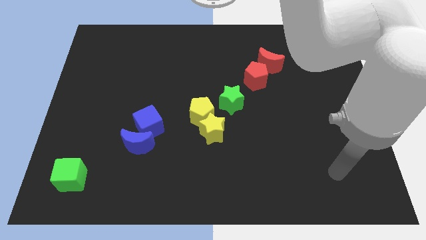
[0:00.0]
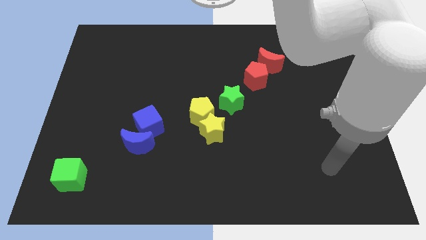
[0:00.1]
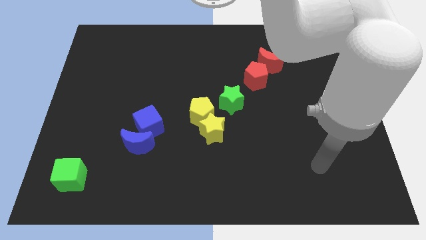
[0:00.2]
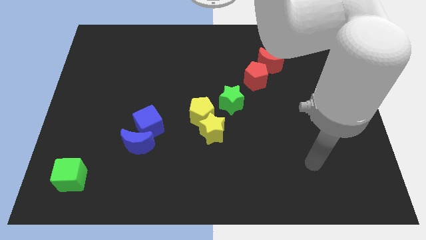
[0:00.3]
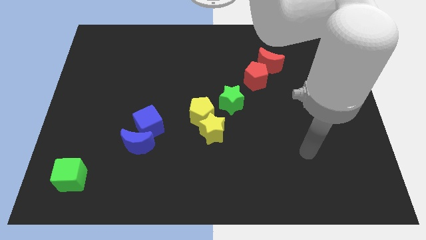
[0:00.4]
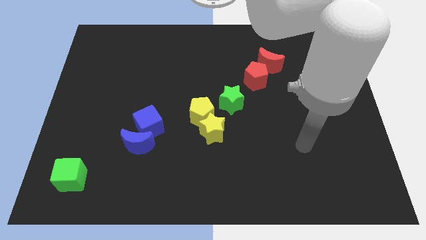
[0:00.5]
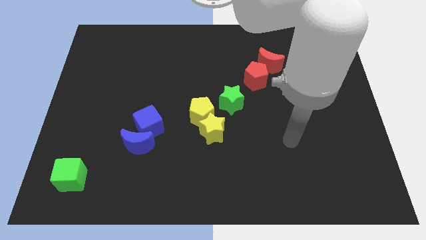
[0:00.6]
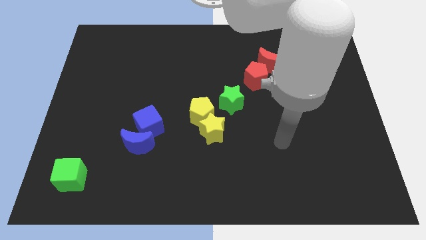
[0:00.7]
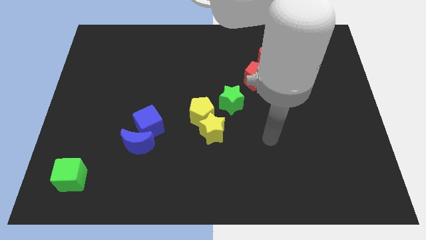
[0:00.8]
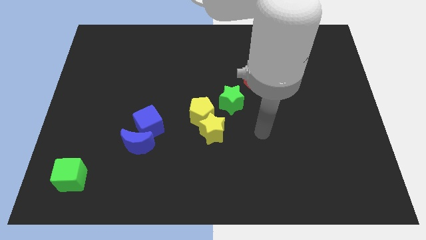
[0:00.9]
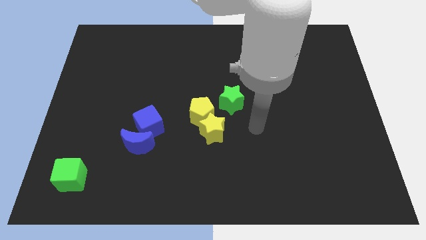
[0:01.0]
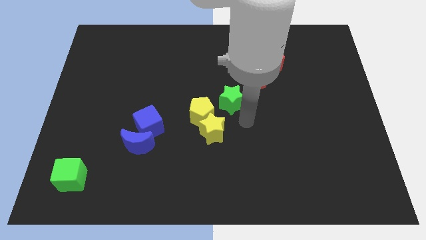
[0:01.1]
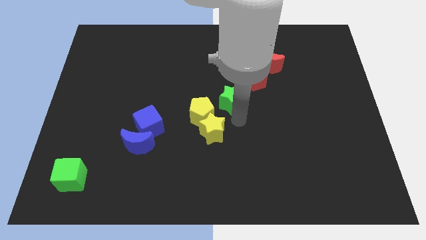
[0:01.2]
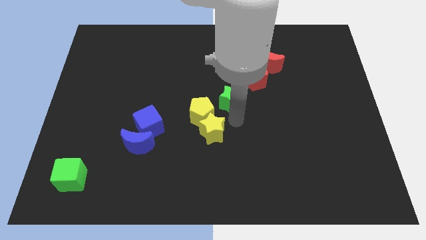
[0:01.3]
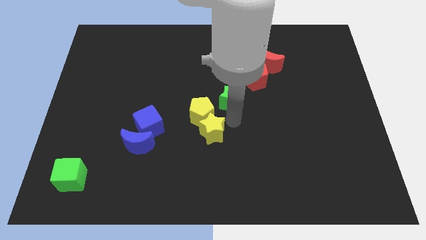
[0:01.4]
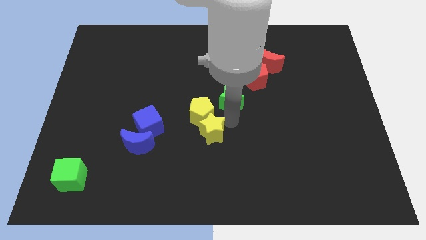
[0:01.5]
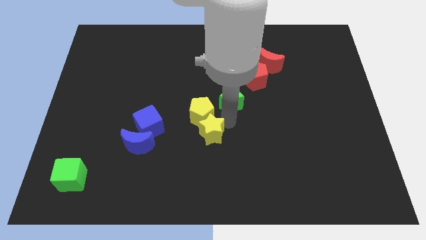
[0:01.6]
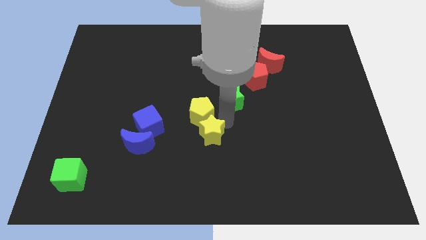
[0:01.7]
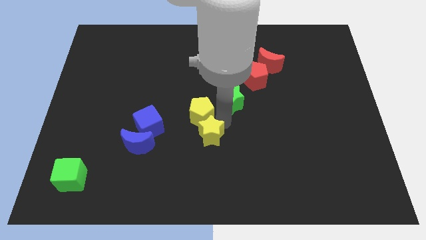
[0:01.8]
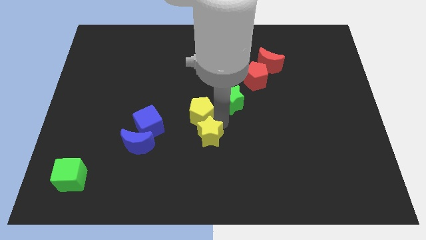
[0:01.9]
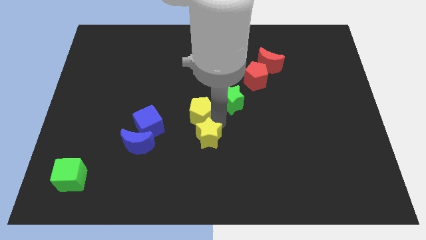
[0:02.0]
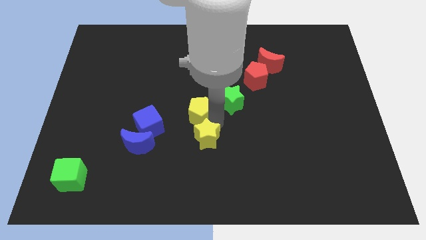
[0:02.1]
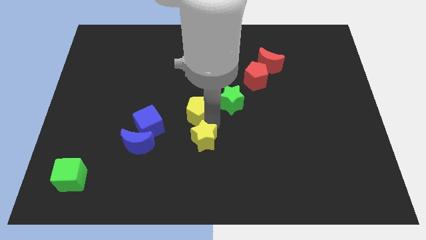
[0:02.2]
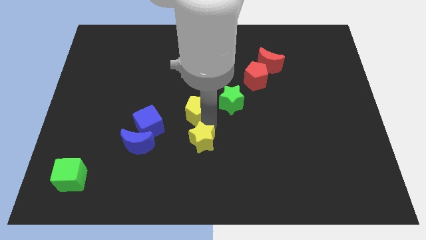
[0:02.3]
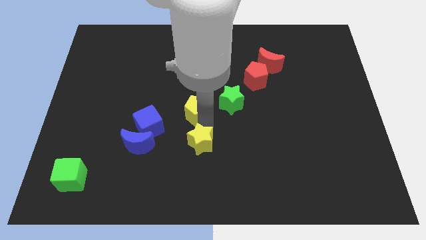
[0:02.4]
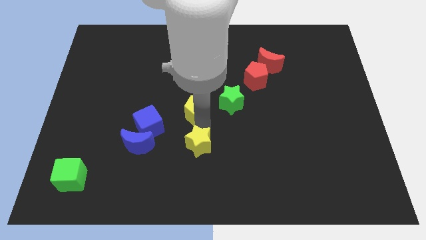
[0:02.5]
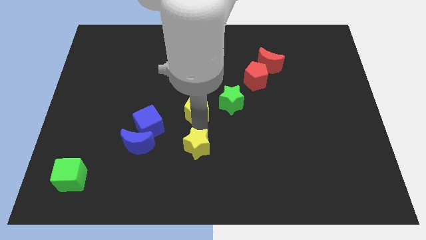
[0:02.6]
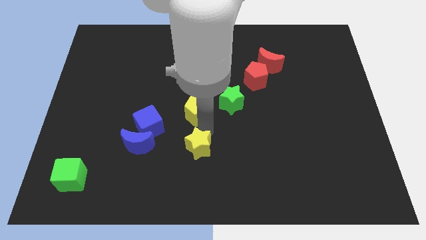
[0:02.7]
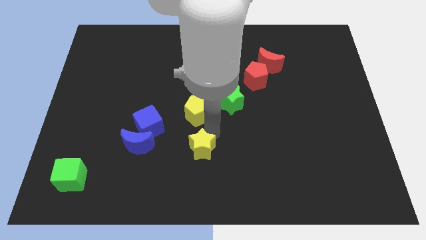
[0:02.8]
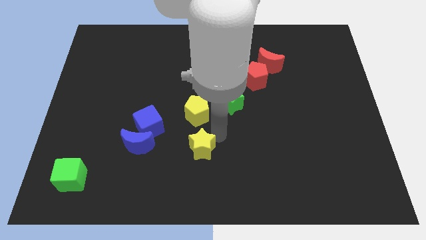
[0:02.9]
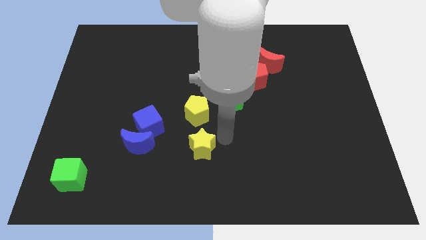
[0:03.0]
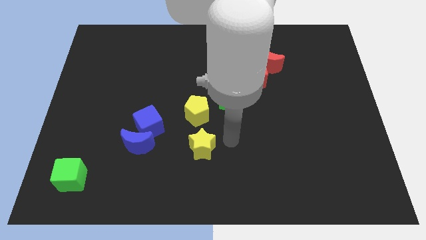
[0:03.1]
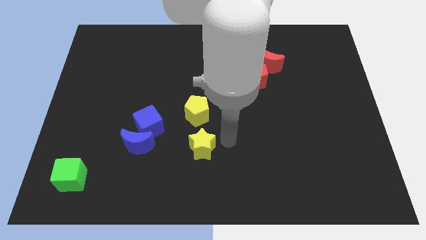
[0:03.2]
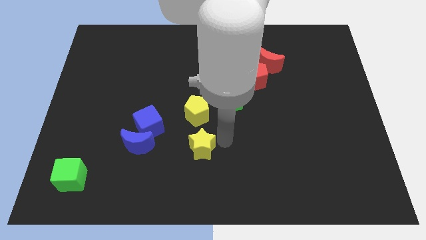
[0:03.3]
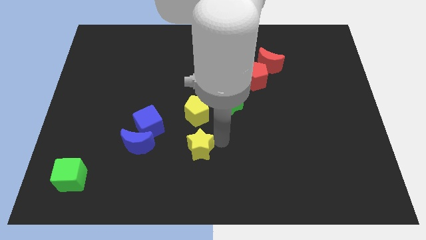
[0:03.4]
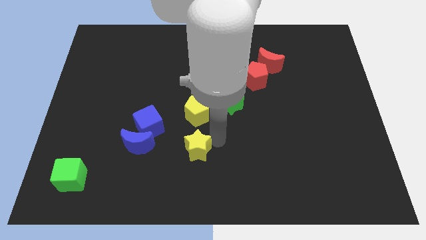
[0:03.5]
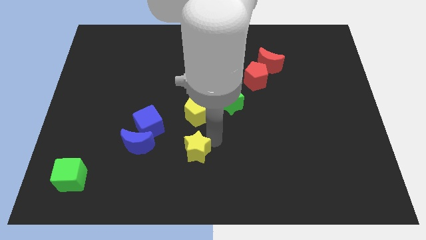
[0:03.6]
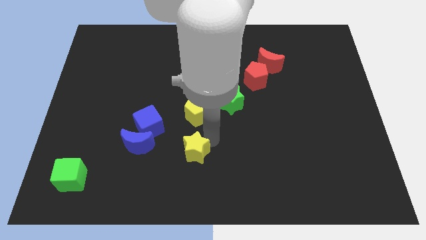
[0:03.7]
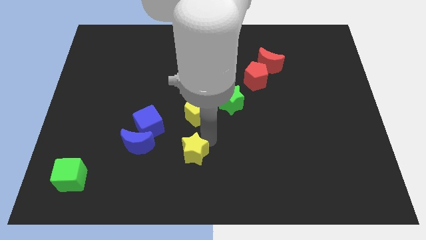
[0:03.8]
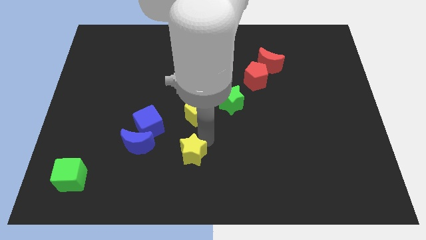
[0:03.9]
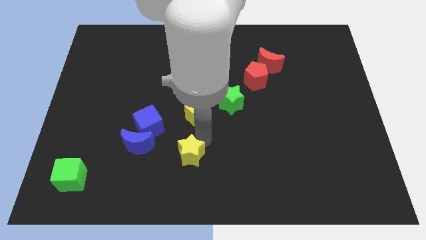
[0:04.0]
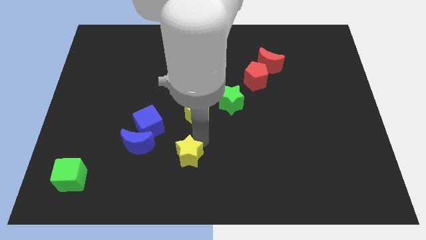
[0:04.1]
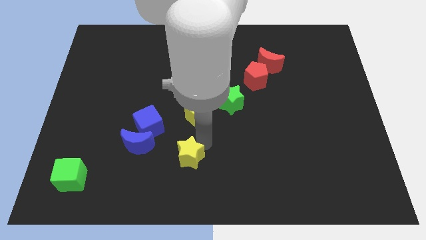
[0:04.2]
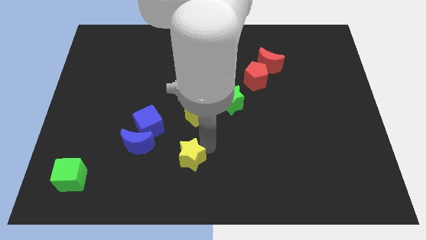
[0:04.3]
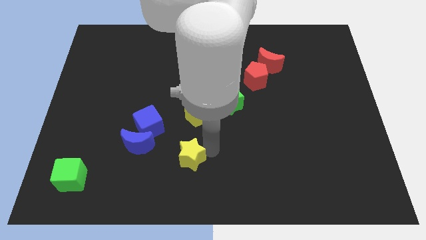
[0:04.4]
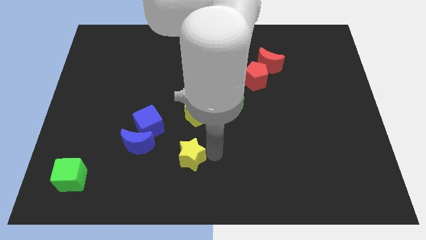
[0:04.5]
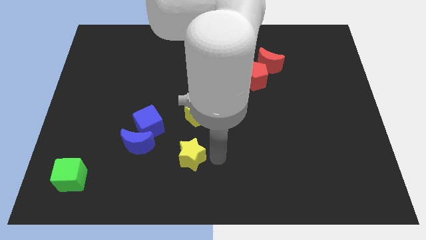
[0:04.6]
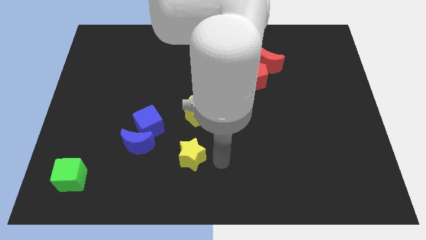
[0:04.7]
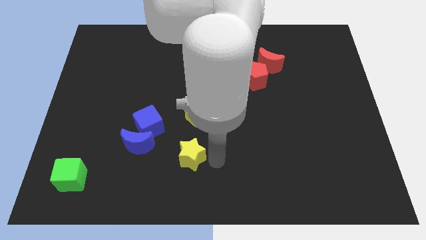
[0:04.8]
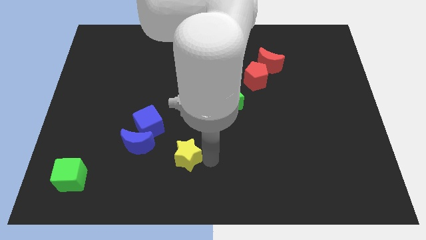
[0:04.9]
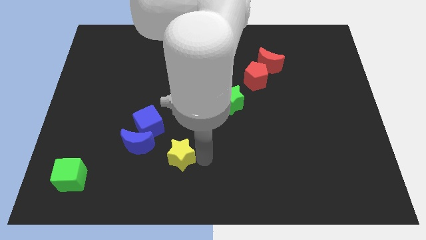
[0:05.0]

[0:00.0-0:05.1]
move the yellow star to the bottom right side of the blue moon

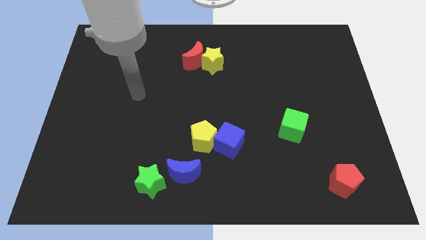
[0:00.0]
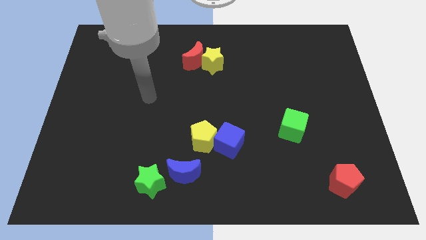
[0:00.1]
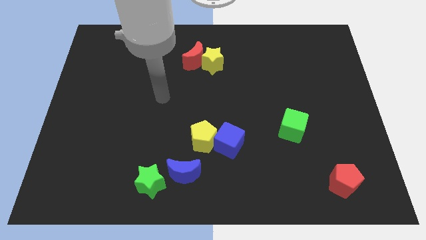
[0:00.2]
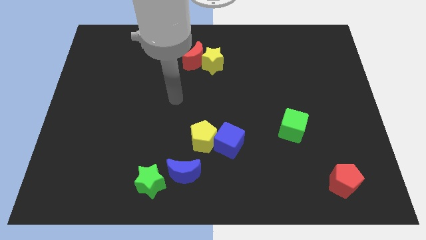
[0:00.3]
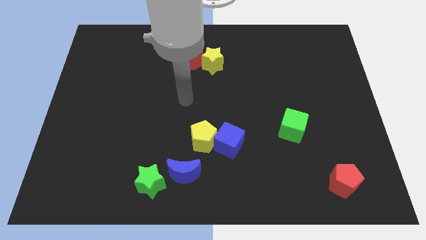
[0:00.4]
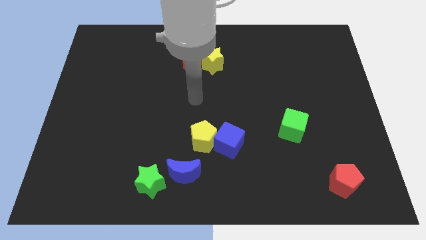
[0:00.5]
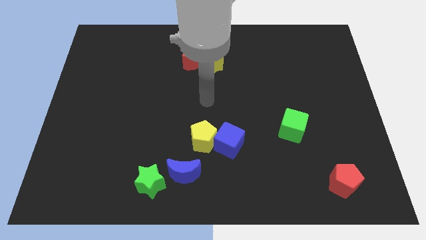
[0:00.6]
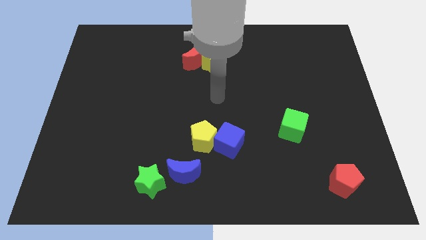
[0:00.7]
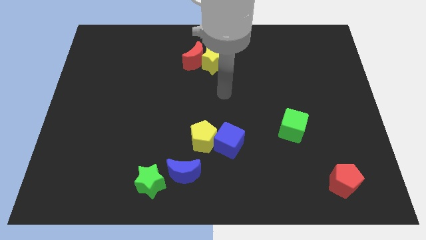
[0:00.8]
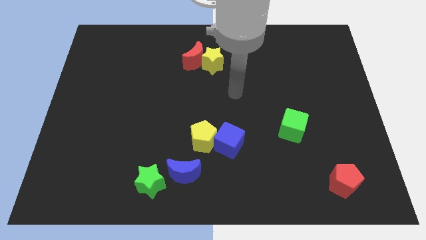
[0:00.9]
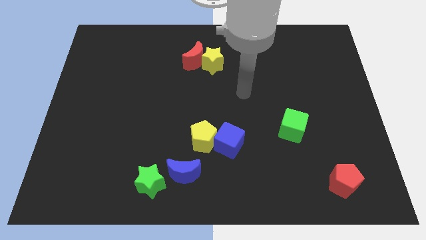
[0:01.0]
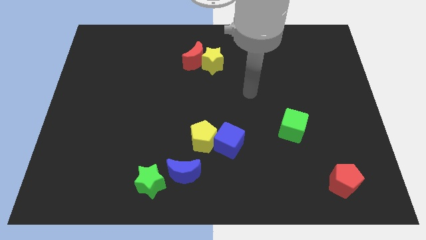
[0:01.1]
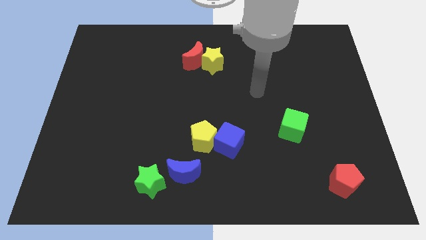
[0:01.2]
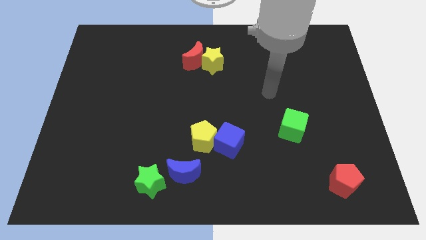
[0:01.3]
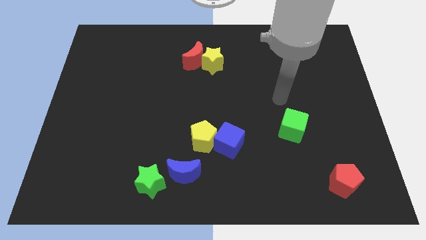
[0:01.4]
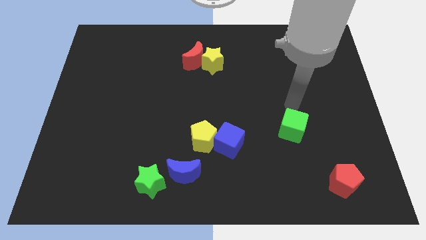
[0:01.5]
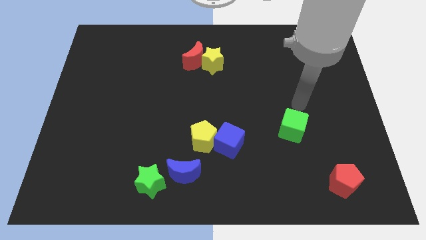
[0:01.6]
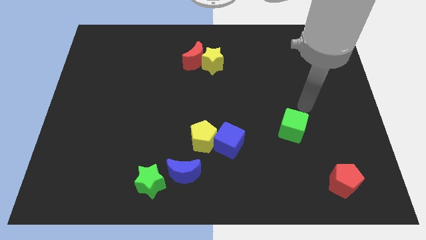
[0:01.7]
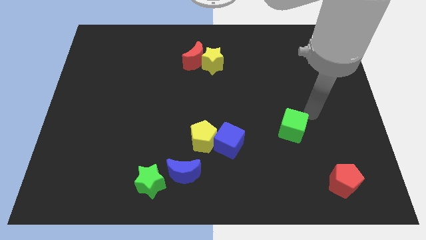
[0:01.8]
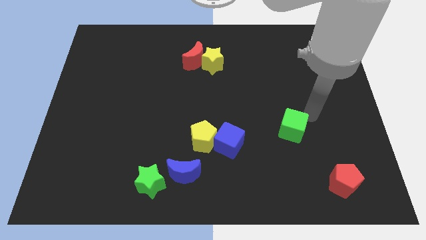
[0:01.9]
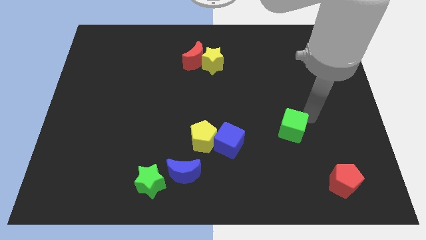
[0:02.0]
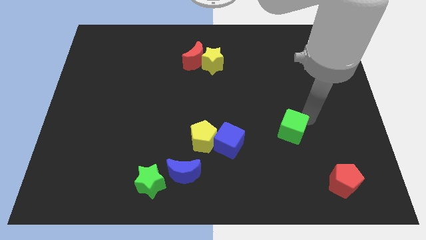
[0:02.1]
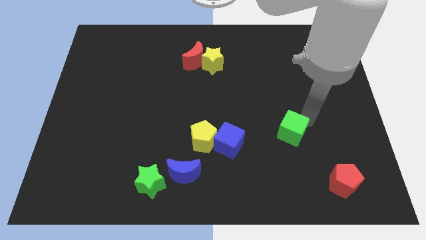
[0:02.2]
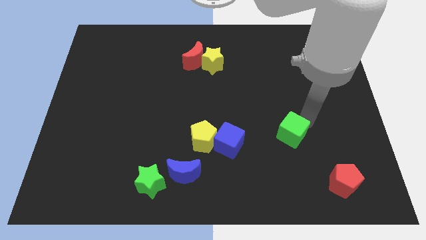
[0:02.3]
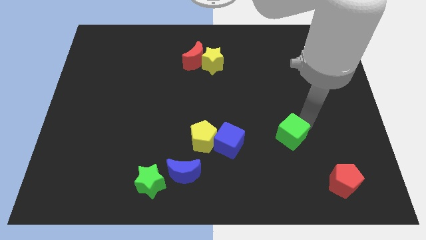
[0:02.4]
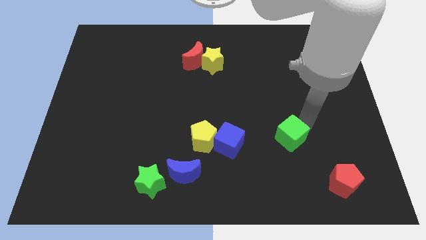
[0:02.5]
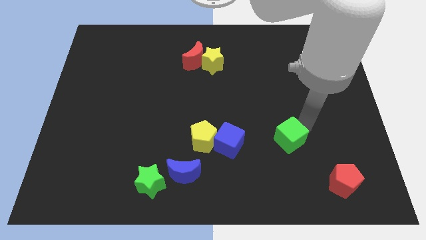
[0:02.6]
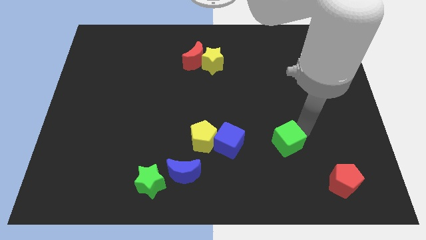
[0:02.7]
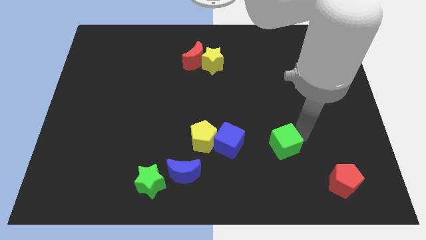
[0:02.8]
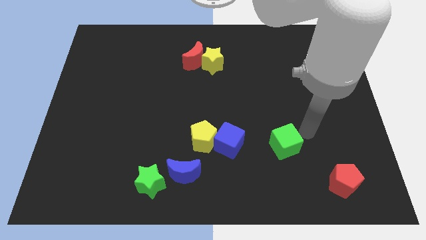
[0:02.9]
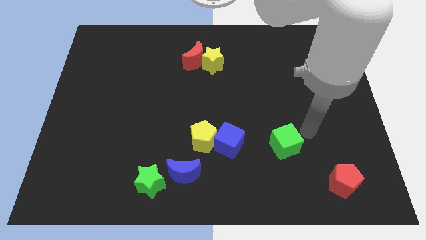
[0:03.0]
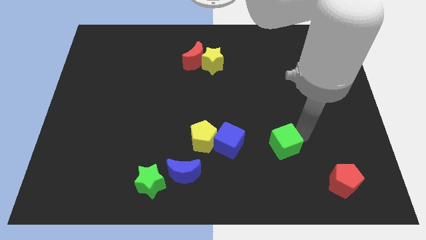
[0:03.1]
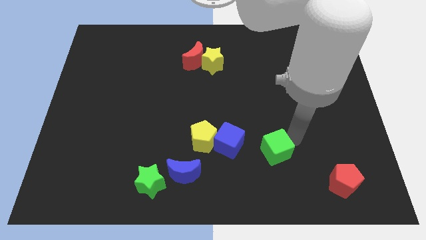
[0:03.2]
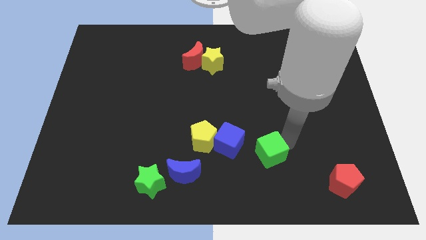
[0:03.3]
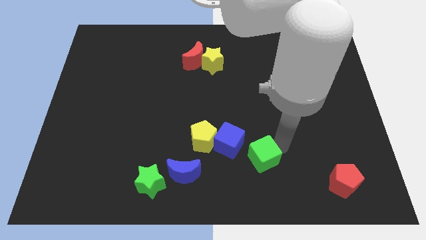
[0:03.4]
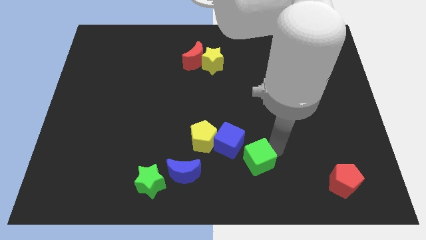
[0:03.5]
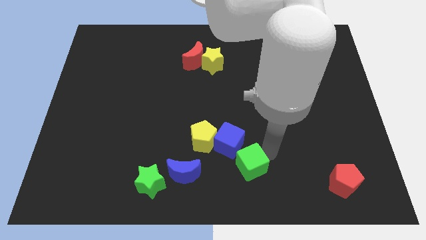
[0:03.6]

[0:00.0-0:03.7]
put the green cube just right of the blue moon
